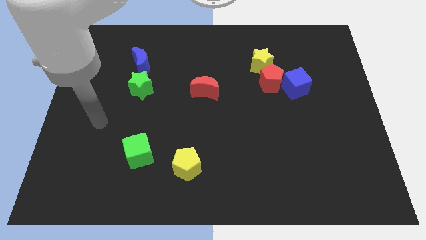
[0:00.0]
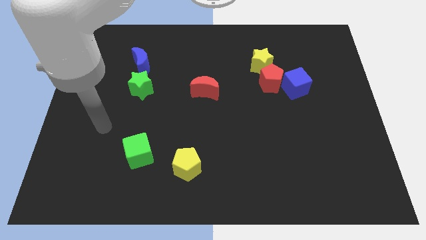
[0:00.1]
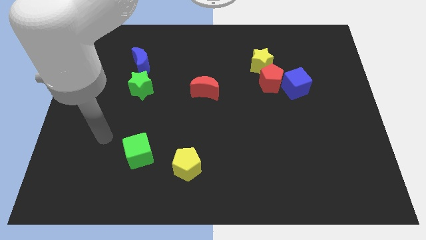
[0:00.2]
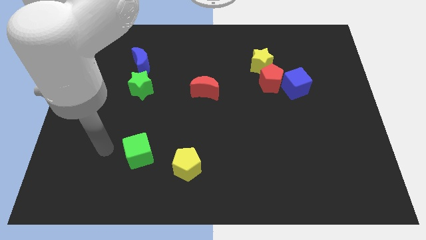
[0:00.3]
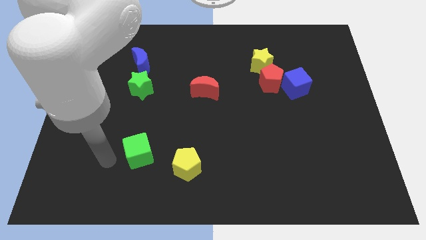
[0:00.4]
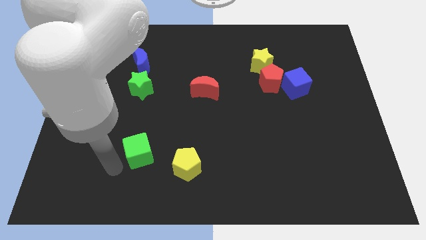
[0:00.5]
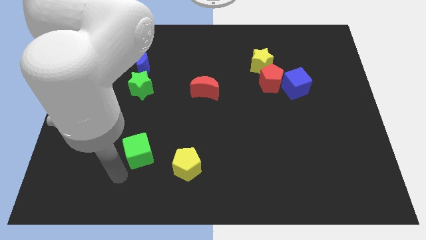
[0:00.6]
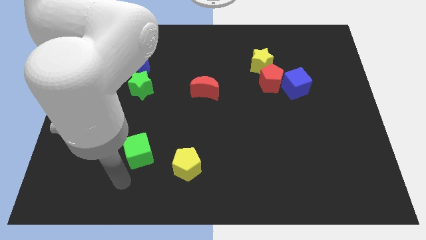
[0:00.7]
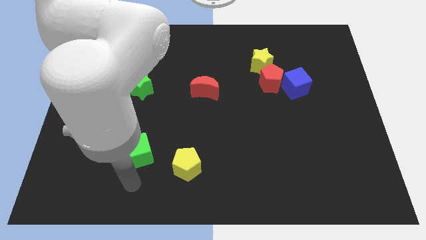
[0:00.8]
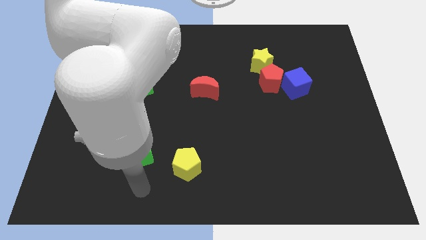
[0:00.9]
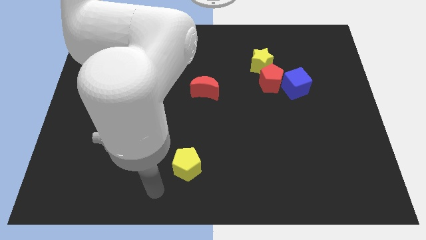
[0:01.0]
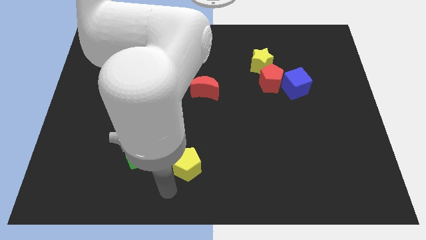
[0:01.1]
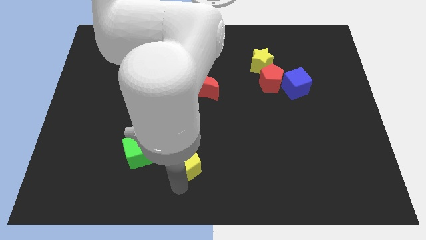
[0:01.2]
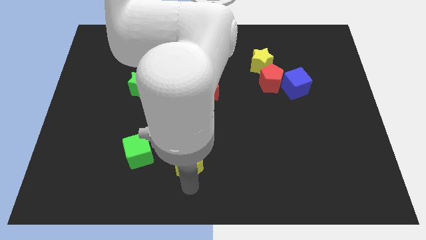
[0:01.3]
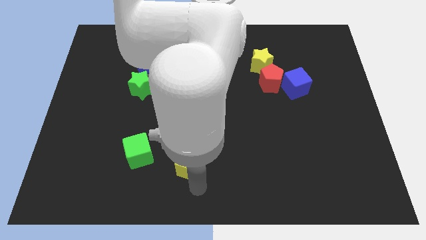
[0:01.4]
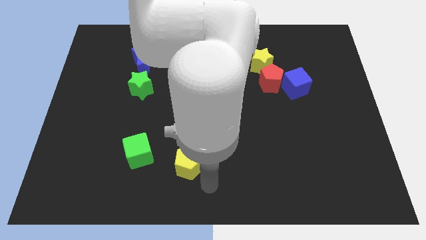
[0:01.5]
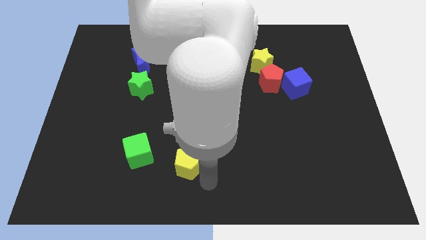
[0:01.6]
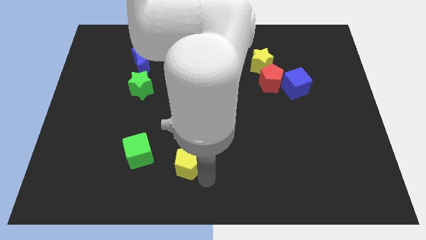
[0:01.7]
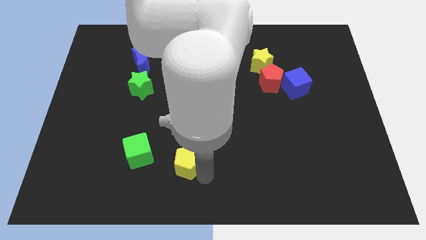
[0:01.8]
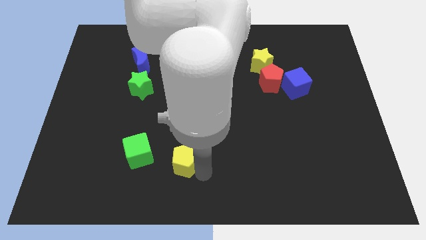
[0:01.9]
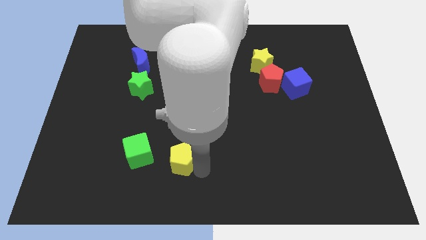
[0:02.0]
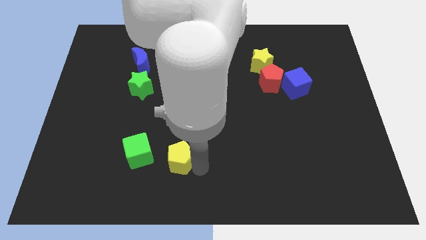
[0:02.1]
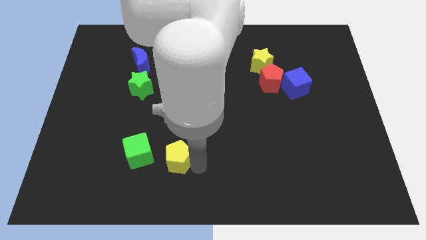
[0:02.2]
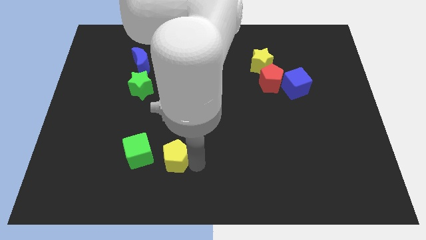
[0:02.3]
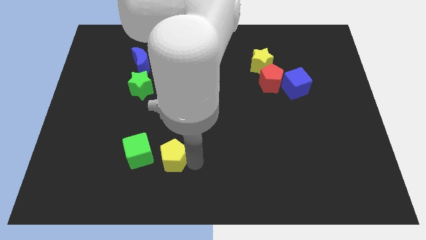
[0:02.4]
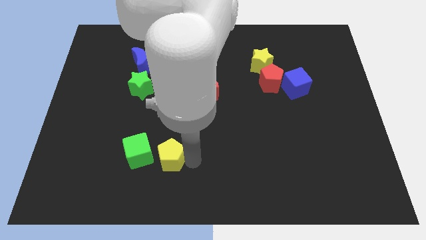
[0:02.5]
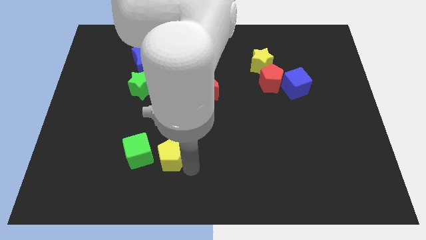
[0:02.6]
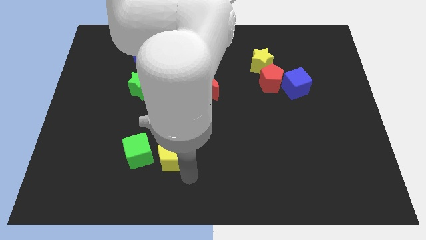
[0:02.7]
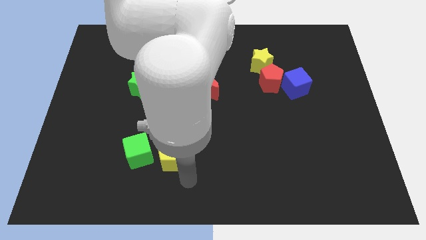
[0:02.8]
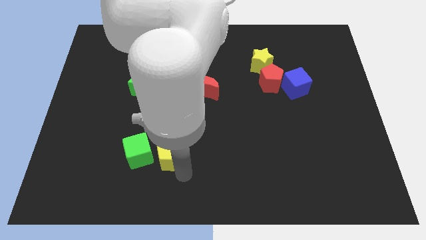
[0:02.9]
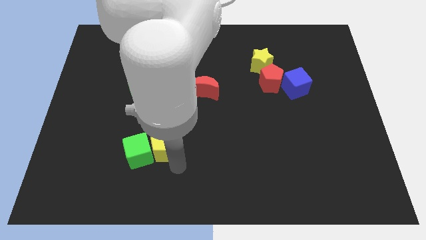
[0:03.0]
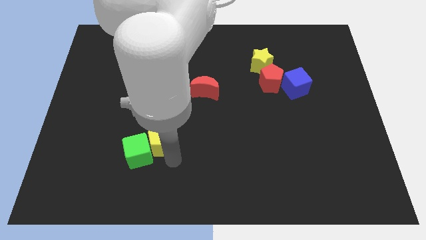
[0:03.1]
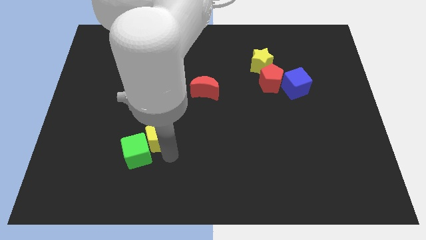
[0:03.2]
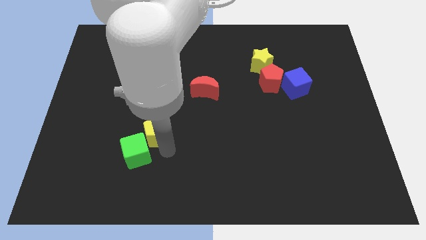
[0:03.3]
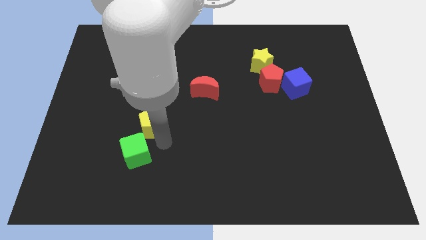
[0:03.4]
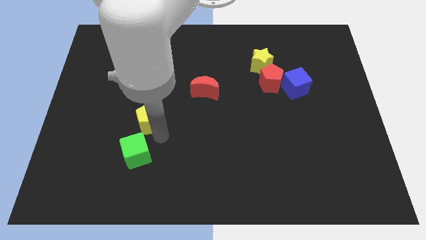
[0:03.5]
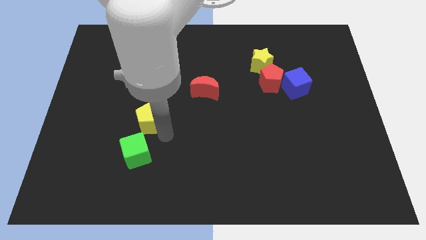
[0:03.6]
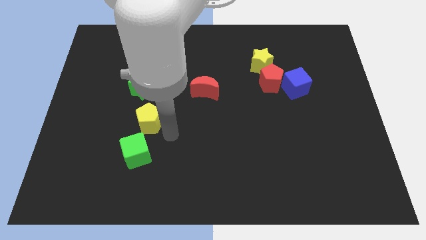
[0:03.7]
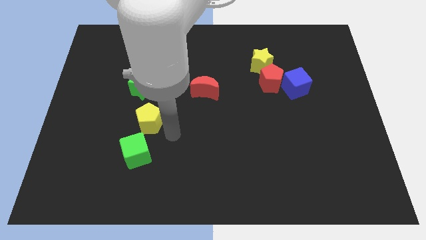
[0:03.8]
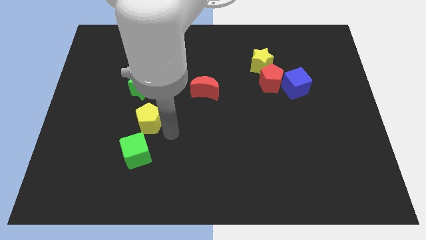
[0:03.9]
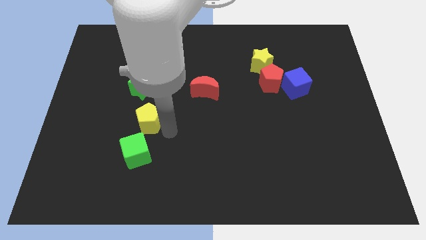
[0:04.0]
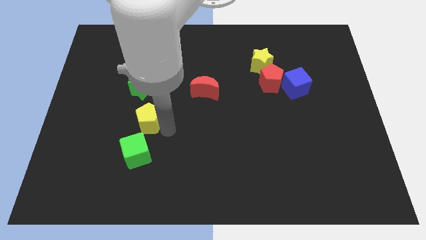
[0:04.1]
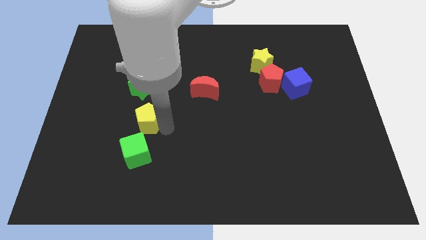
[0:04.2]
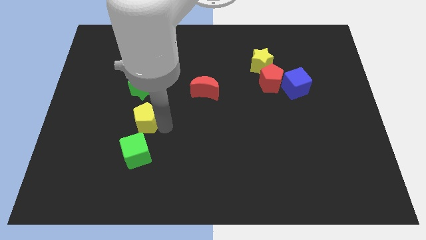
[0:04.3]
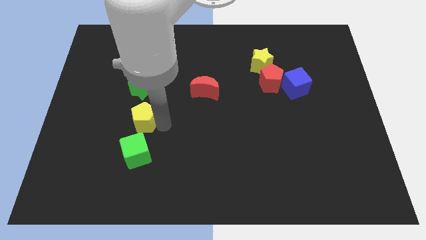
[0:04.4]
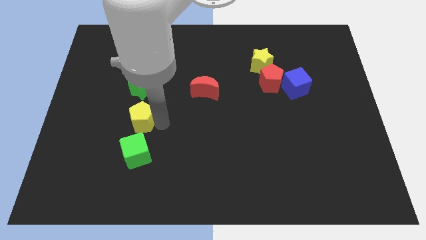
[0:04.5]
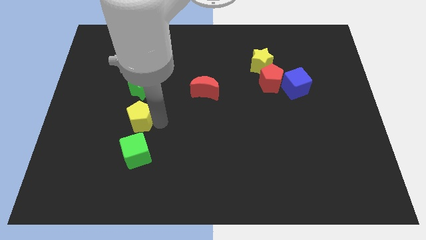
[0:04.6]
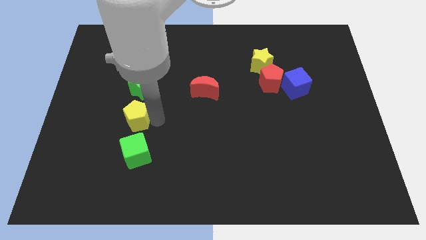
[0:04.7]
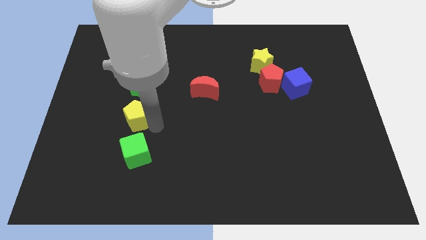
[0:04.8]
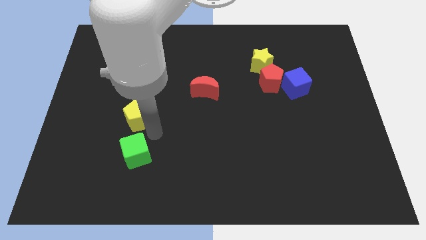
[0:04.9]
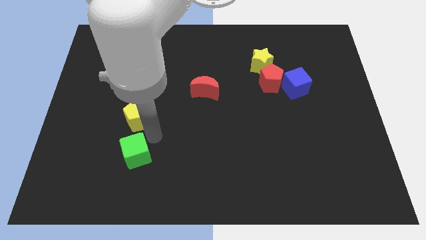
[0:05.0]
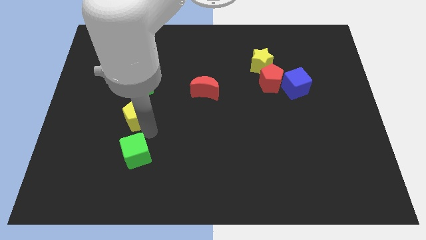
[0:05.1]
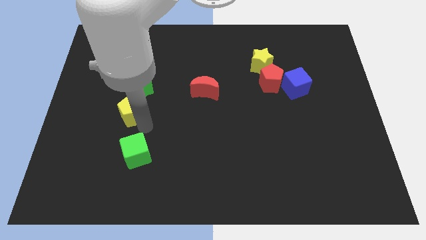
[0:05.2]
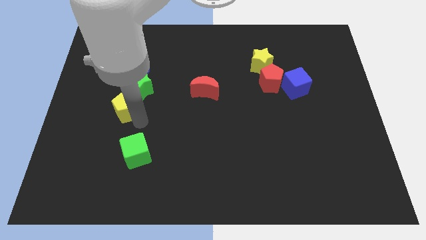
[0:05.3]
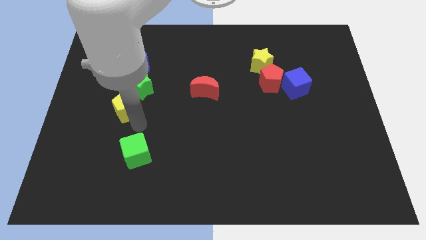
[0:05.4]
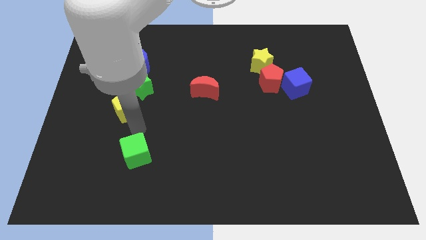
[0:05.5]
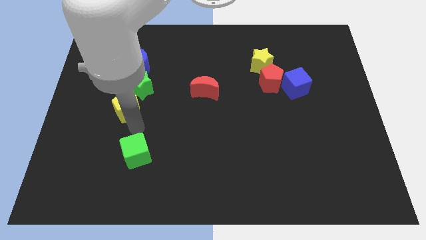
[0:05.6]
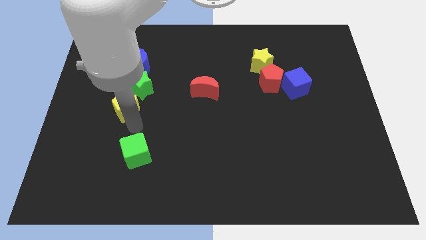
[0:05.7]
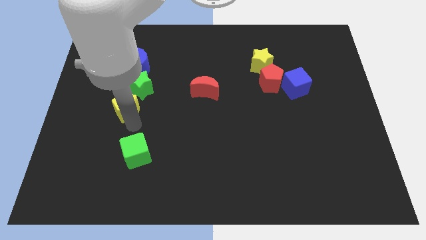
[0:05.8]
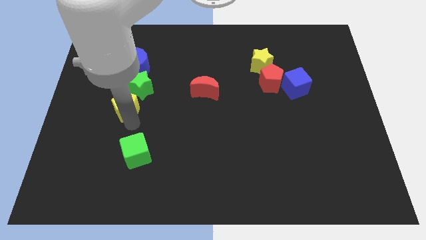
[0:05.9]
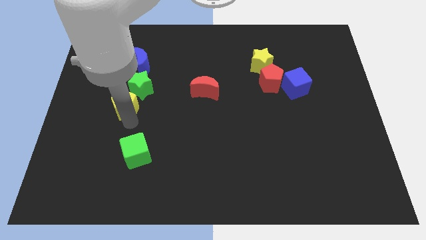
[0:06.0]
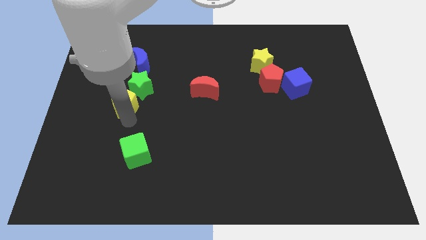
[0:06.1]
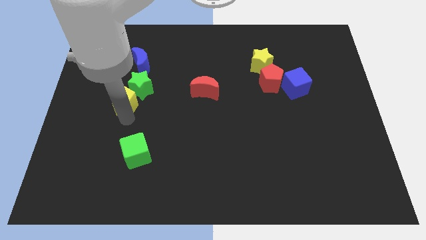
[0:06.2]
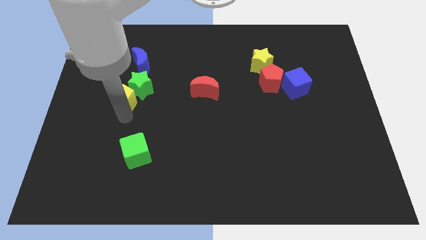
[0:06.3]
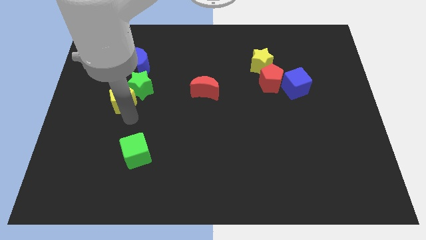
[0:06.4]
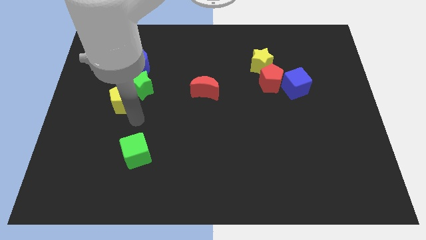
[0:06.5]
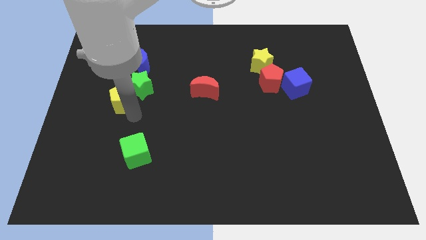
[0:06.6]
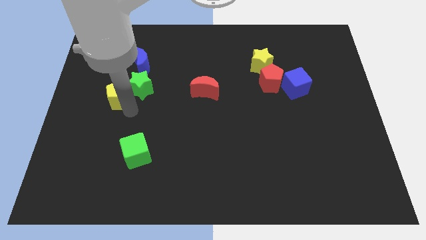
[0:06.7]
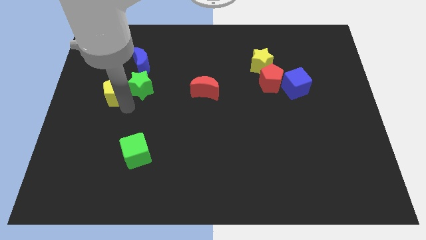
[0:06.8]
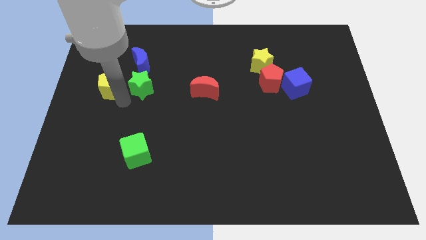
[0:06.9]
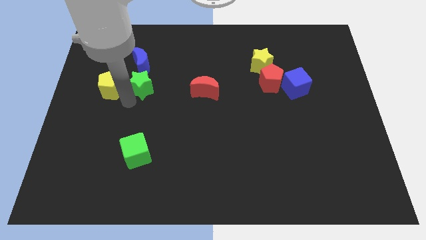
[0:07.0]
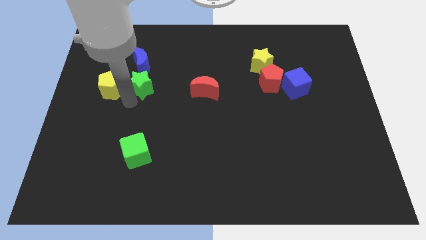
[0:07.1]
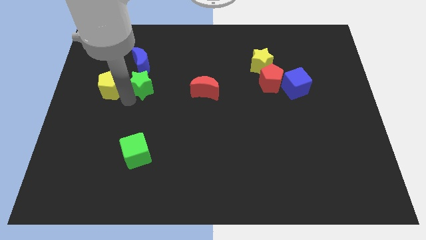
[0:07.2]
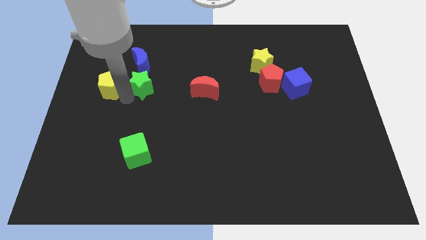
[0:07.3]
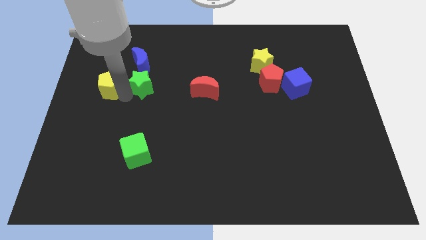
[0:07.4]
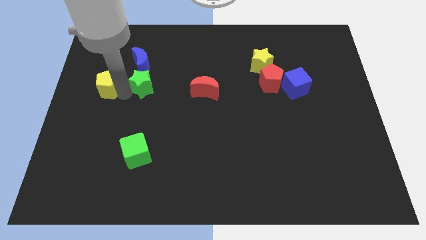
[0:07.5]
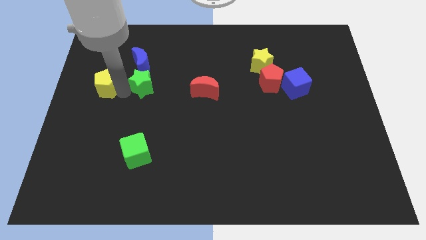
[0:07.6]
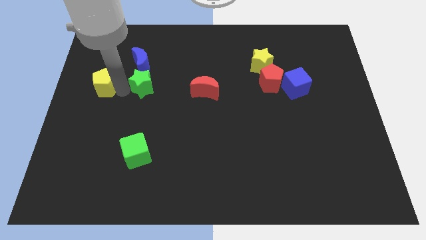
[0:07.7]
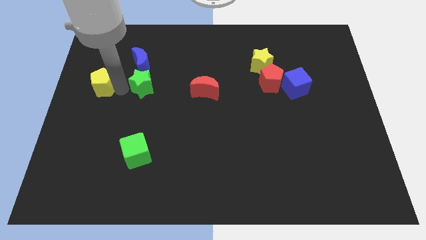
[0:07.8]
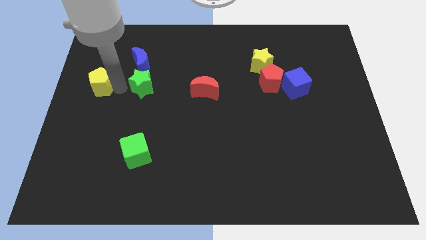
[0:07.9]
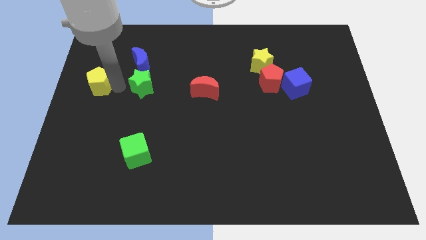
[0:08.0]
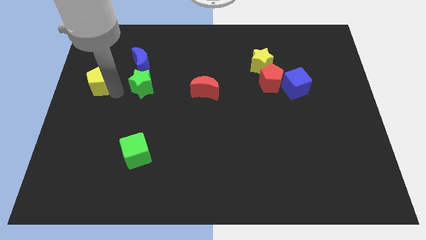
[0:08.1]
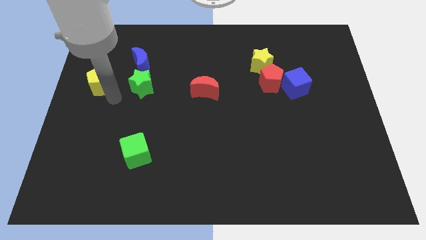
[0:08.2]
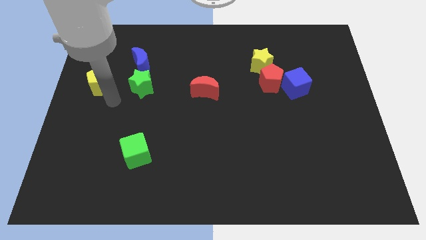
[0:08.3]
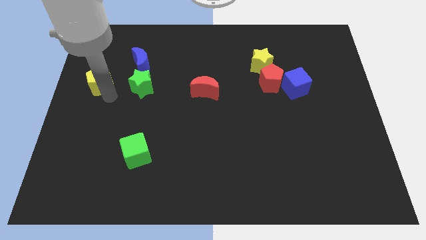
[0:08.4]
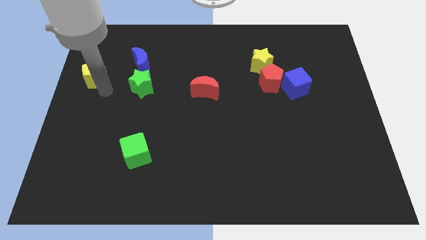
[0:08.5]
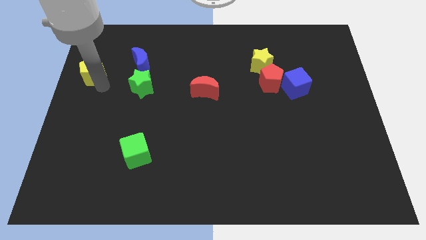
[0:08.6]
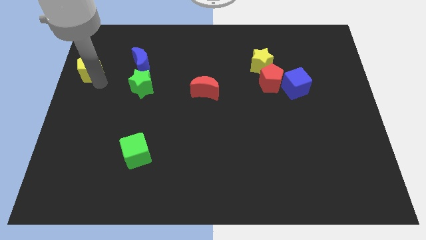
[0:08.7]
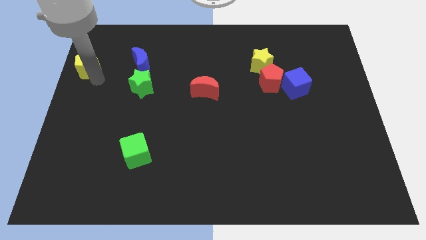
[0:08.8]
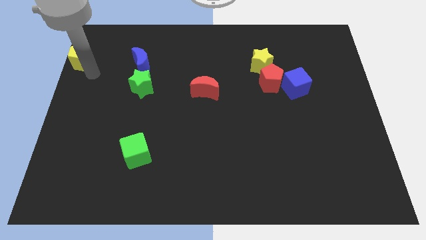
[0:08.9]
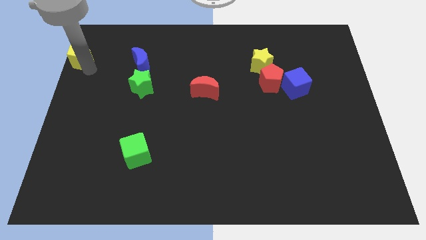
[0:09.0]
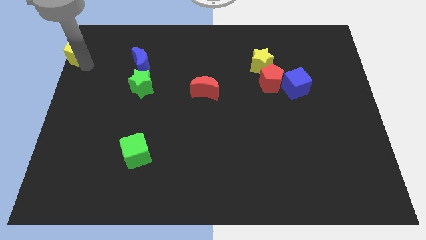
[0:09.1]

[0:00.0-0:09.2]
push the yellow pentagon to the top left corner
